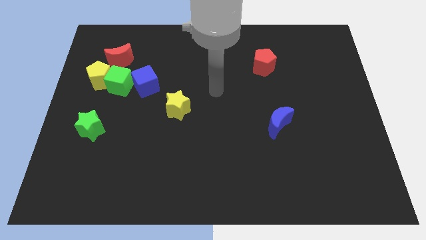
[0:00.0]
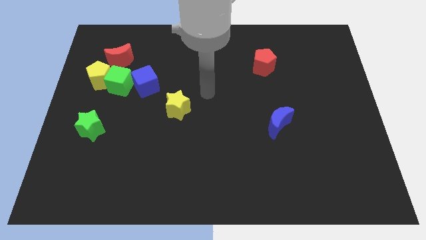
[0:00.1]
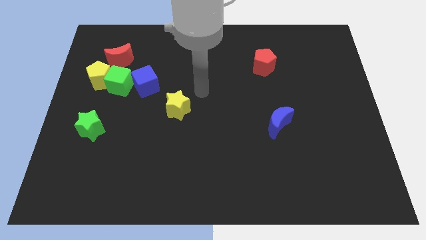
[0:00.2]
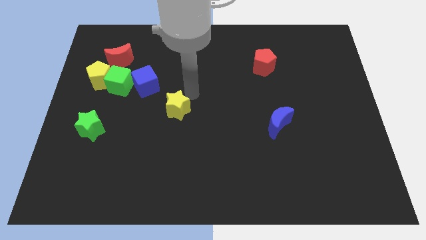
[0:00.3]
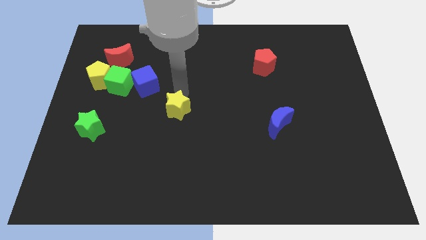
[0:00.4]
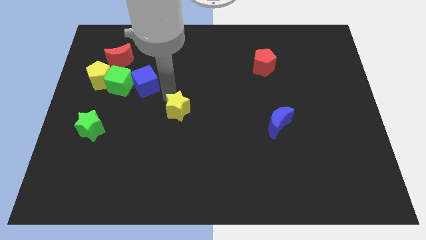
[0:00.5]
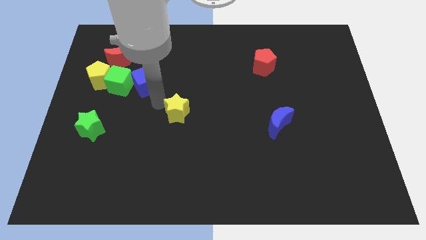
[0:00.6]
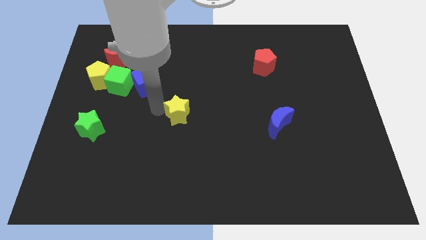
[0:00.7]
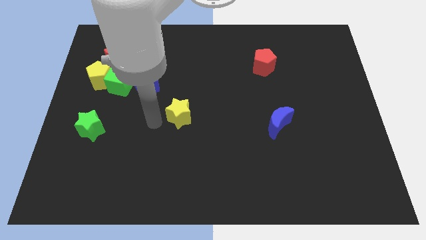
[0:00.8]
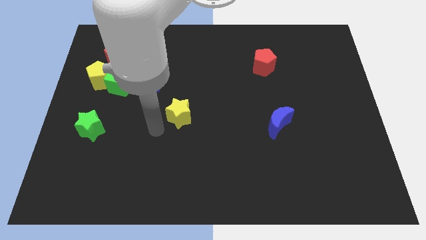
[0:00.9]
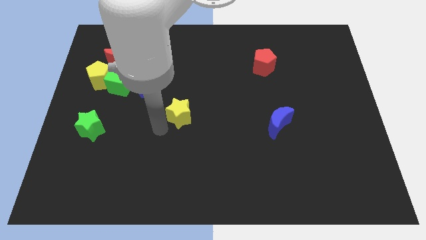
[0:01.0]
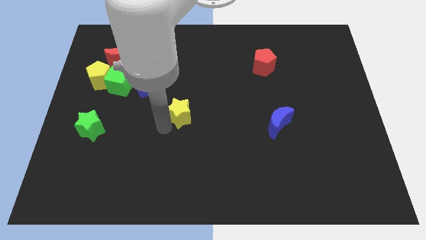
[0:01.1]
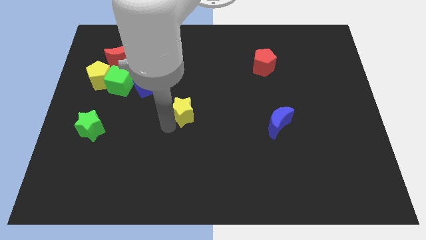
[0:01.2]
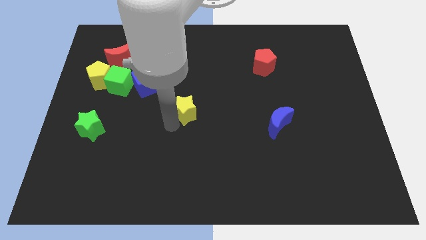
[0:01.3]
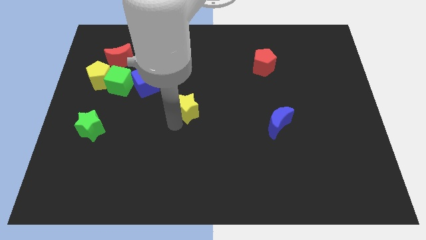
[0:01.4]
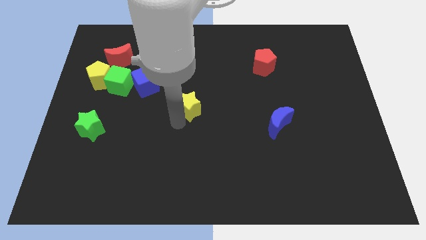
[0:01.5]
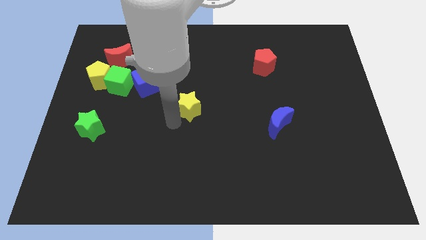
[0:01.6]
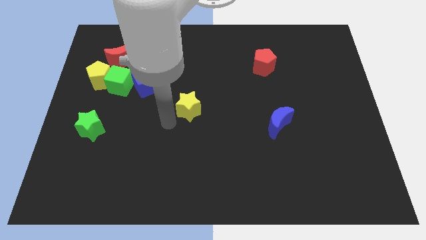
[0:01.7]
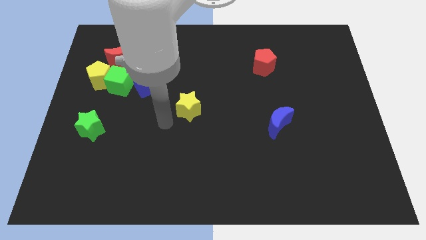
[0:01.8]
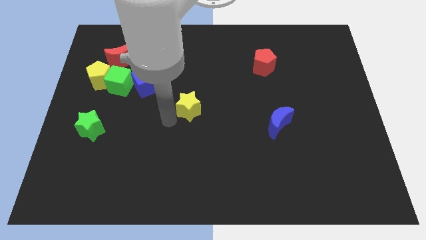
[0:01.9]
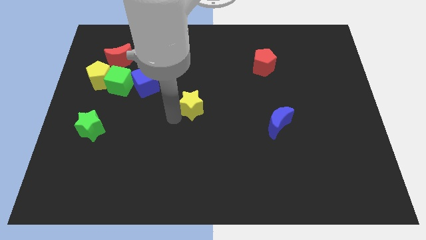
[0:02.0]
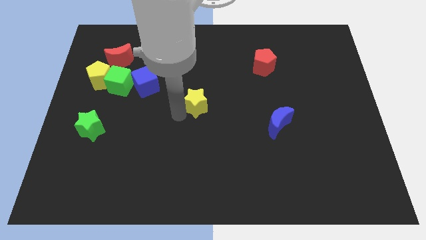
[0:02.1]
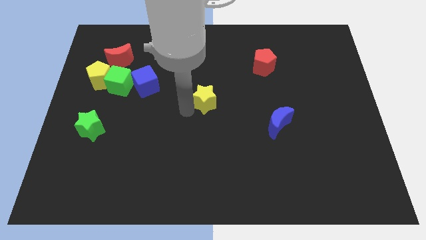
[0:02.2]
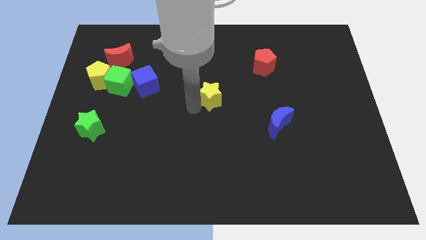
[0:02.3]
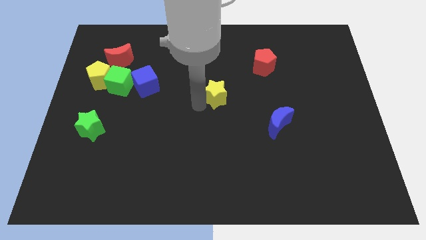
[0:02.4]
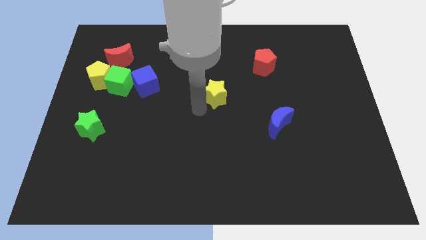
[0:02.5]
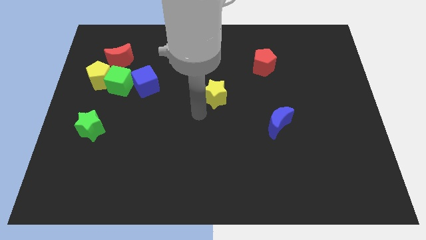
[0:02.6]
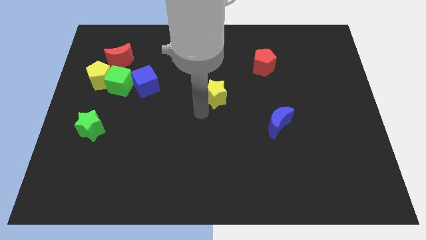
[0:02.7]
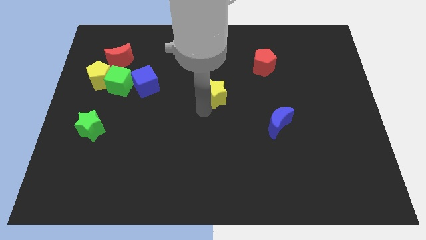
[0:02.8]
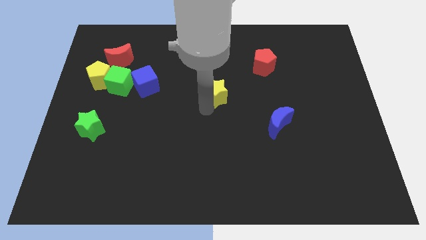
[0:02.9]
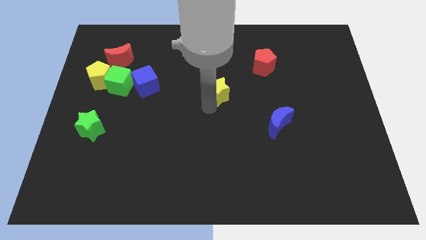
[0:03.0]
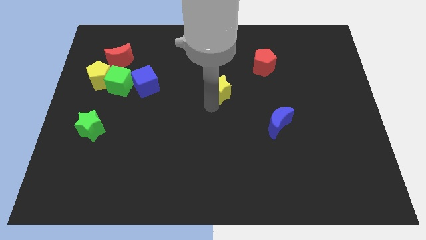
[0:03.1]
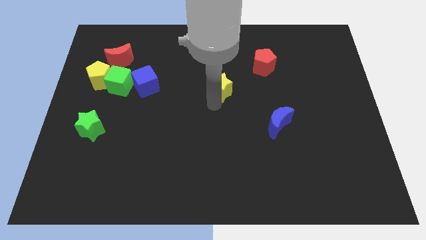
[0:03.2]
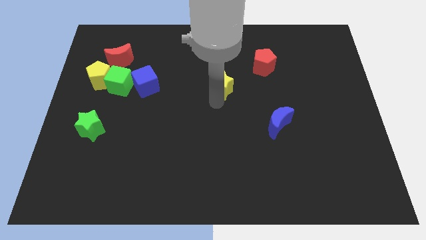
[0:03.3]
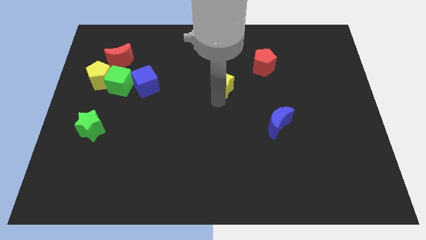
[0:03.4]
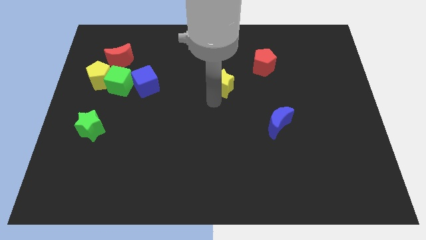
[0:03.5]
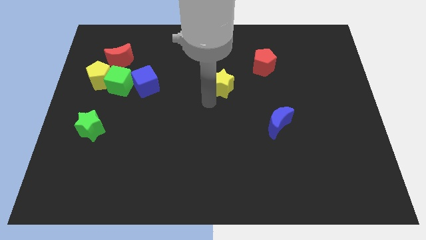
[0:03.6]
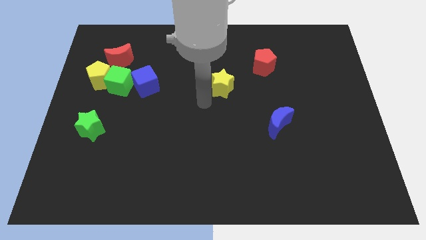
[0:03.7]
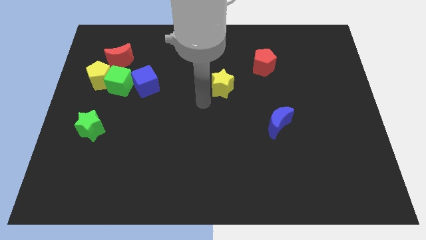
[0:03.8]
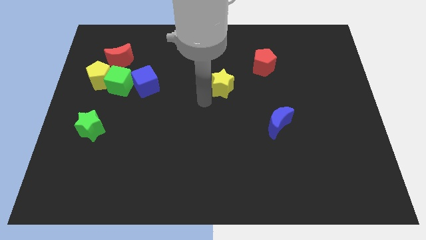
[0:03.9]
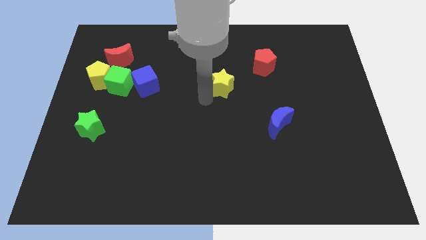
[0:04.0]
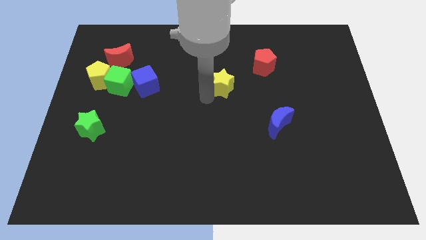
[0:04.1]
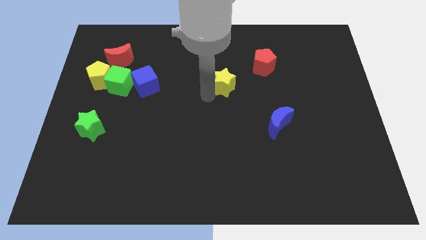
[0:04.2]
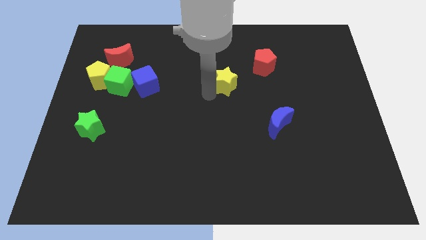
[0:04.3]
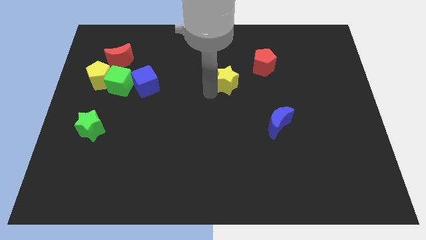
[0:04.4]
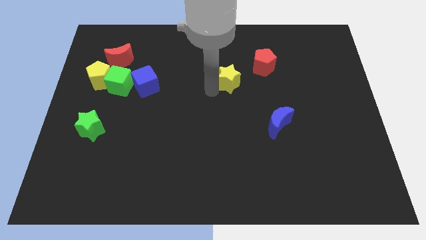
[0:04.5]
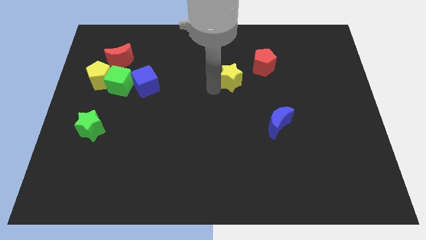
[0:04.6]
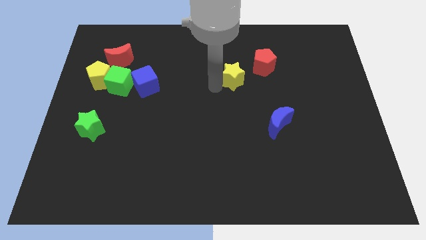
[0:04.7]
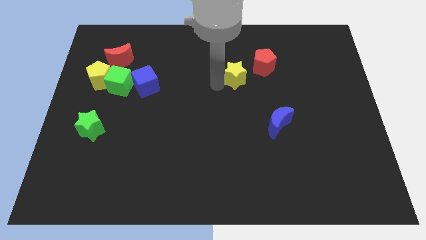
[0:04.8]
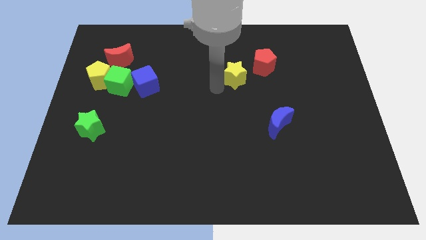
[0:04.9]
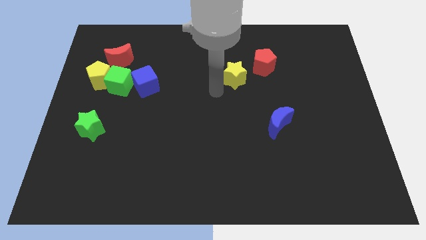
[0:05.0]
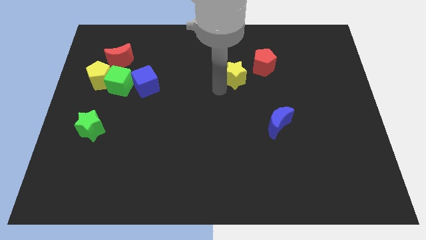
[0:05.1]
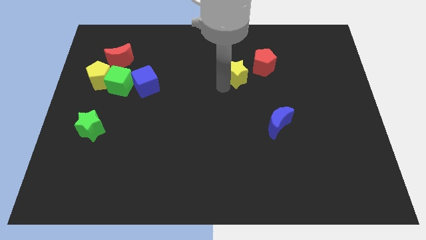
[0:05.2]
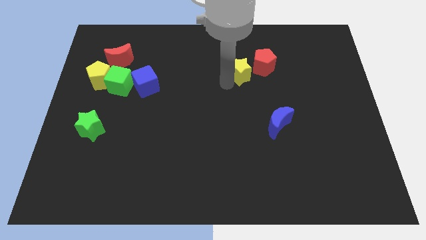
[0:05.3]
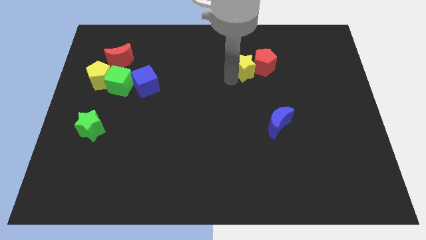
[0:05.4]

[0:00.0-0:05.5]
put the yellow star close to the red pentagon

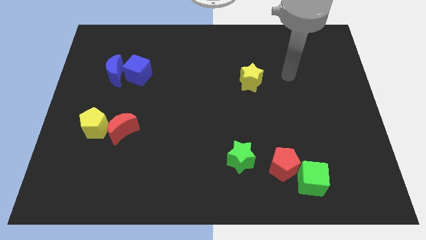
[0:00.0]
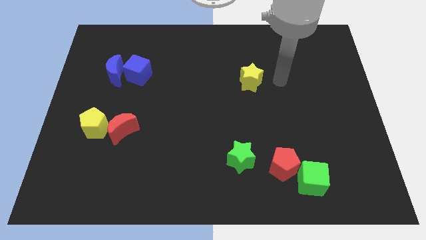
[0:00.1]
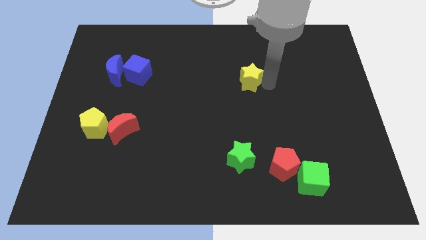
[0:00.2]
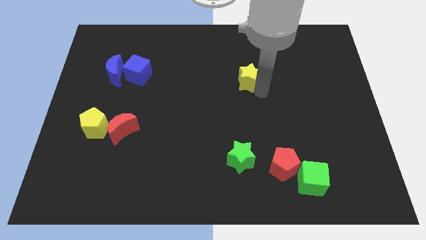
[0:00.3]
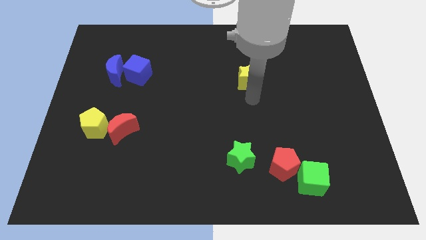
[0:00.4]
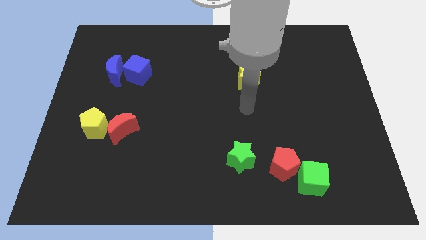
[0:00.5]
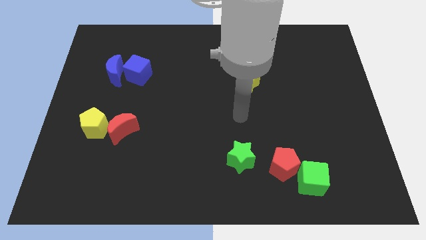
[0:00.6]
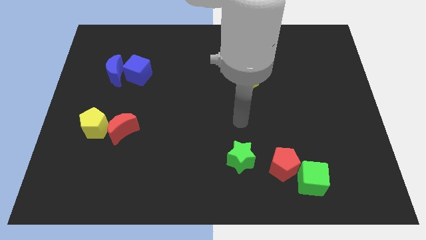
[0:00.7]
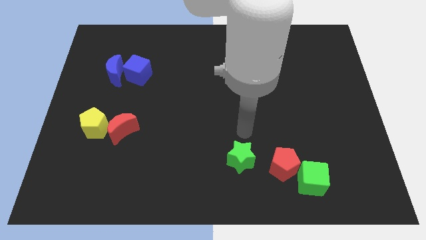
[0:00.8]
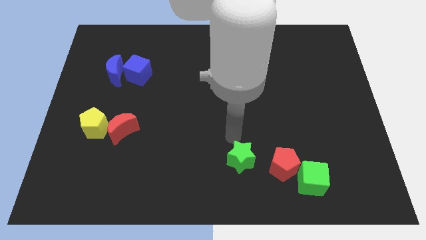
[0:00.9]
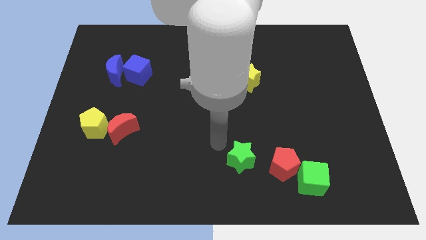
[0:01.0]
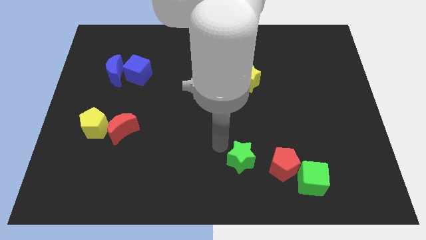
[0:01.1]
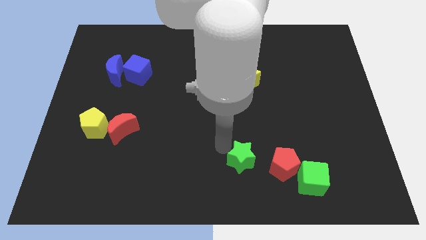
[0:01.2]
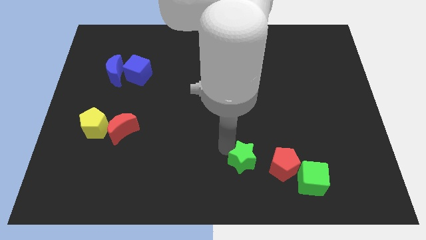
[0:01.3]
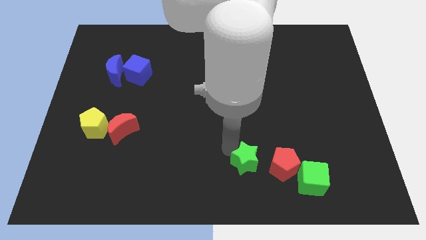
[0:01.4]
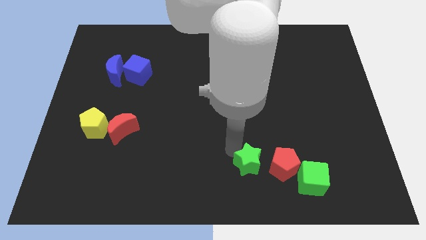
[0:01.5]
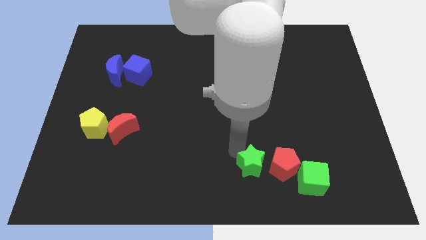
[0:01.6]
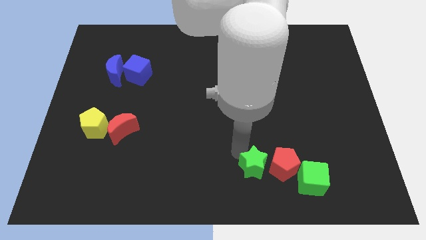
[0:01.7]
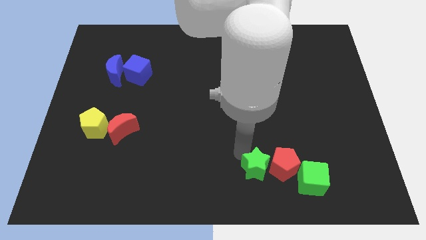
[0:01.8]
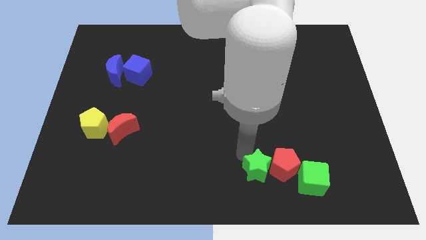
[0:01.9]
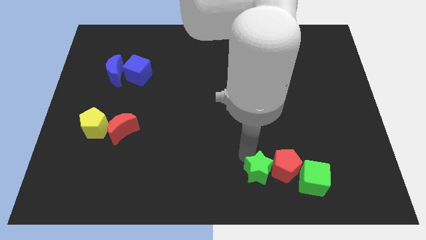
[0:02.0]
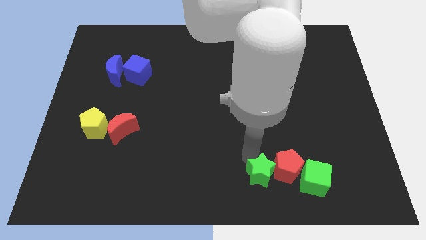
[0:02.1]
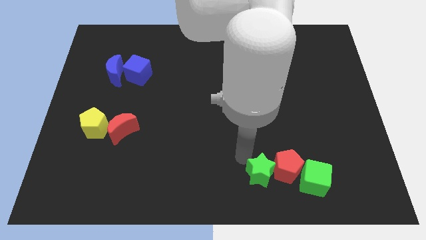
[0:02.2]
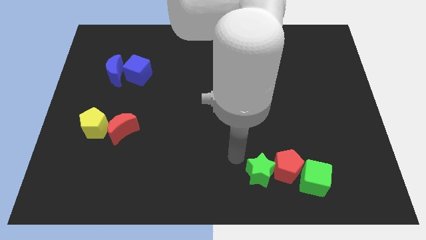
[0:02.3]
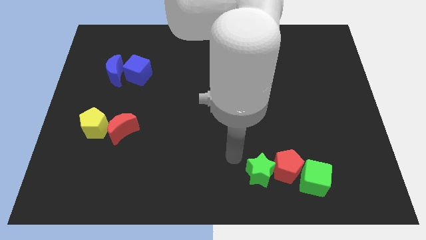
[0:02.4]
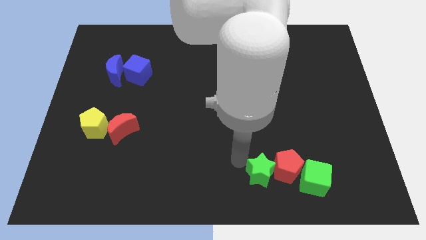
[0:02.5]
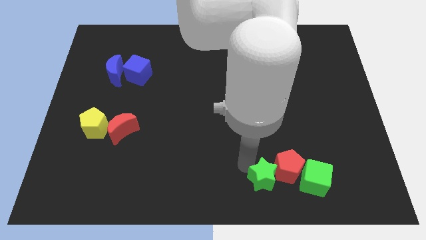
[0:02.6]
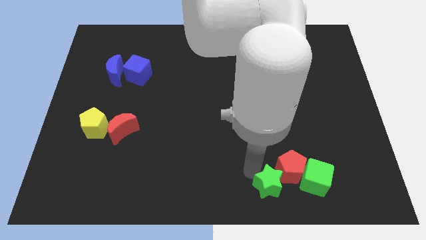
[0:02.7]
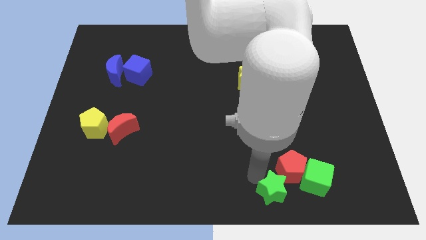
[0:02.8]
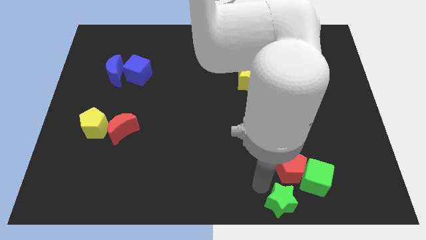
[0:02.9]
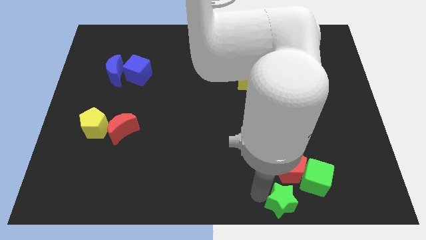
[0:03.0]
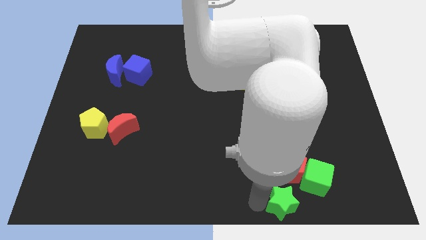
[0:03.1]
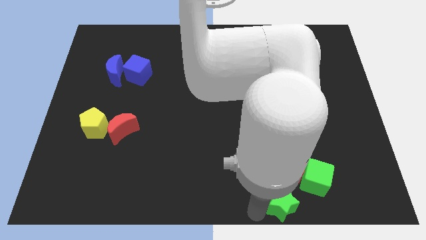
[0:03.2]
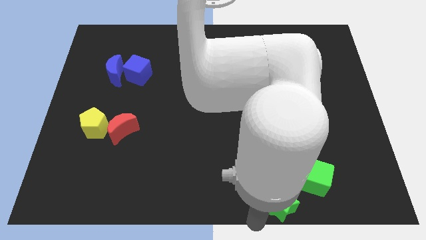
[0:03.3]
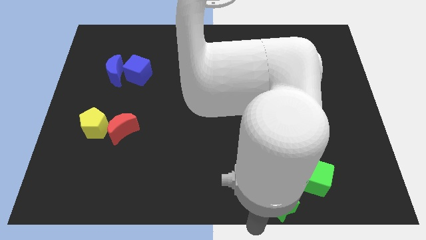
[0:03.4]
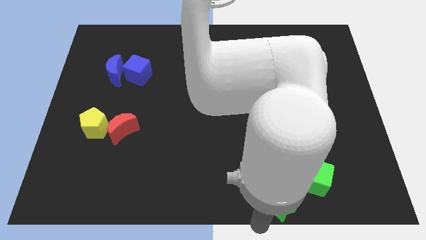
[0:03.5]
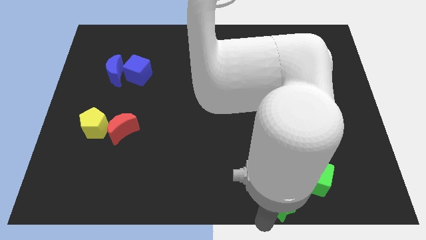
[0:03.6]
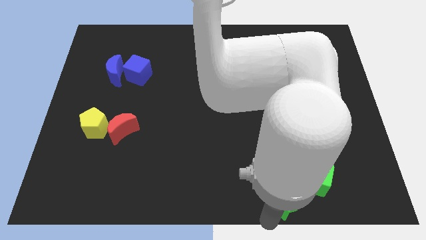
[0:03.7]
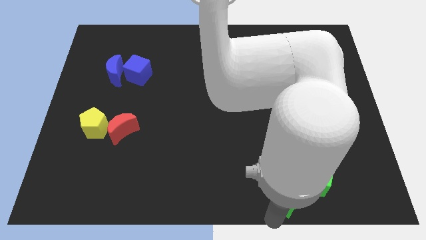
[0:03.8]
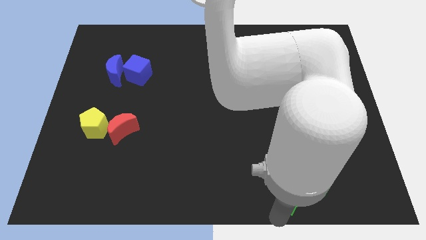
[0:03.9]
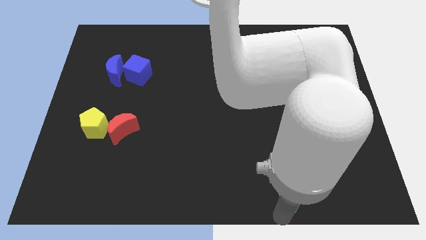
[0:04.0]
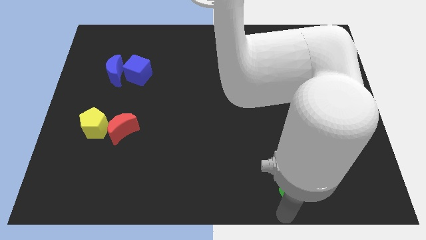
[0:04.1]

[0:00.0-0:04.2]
push the green star next to the green cube
